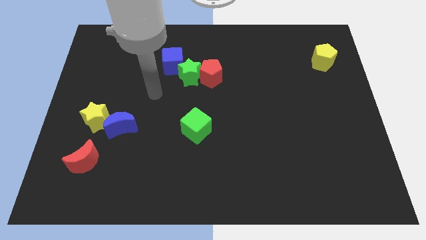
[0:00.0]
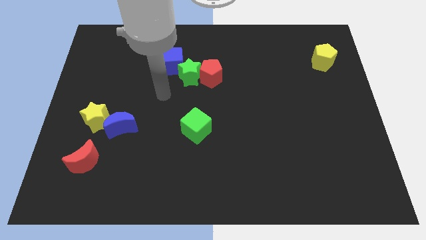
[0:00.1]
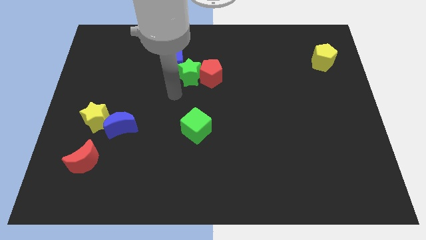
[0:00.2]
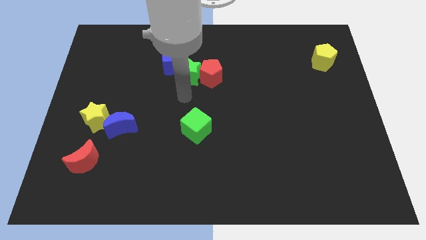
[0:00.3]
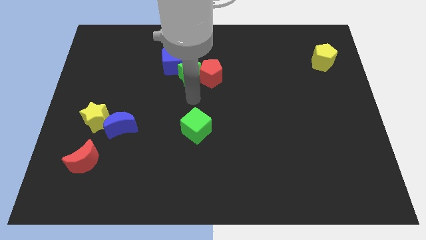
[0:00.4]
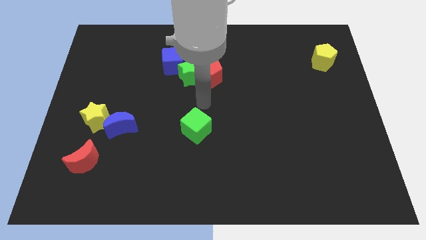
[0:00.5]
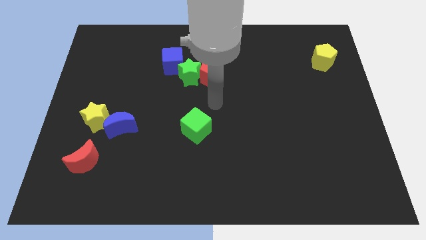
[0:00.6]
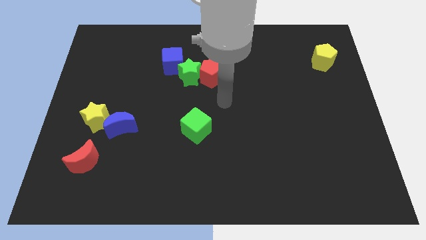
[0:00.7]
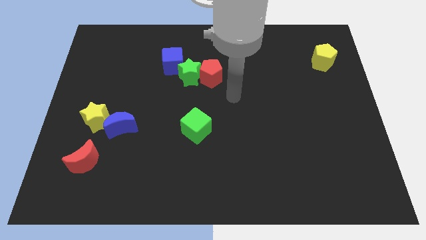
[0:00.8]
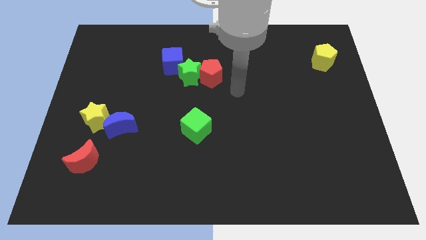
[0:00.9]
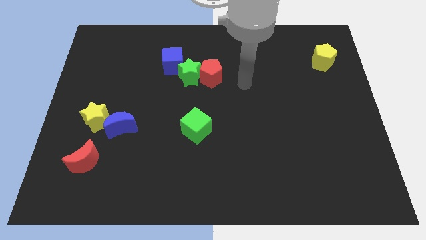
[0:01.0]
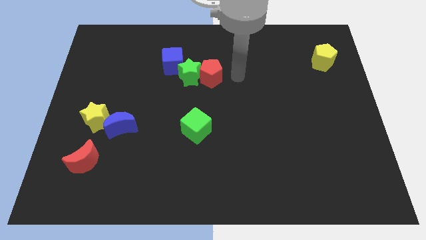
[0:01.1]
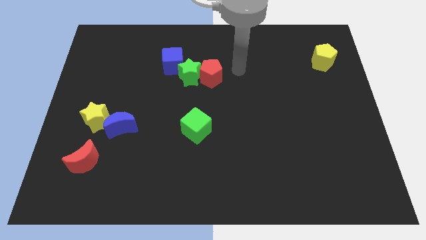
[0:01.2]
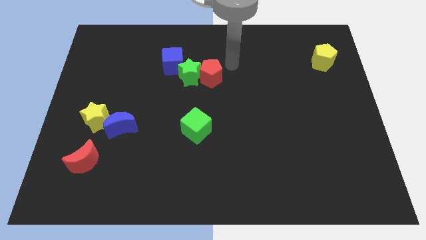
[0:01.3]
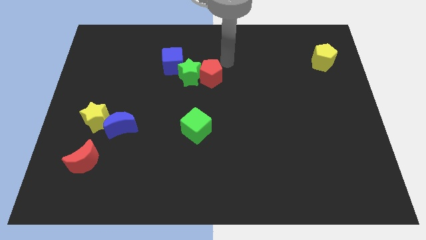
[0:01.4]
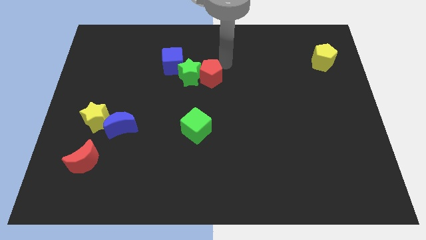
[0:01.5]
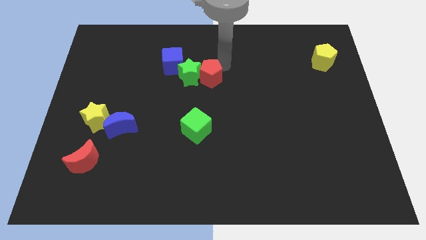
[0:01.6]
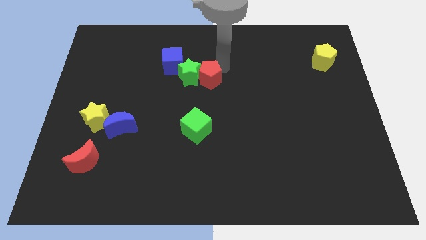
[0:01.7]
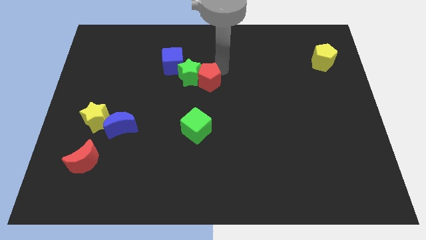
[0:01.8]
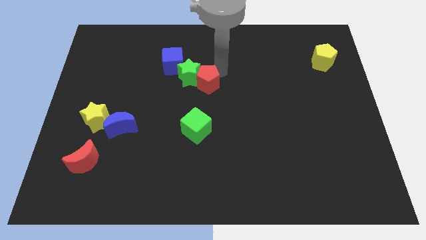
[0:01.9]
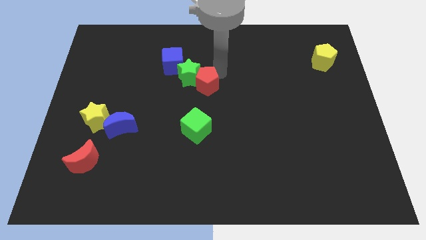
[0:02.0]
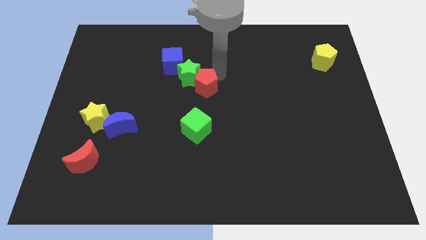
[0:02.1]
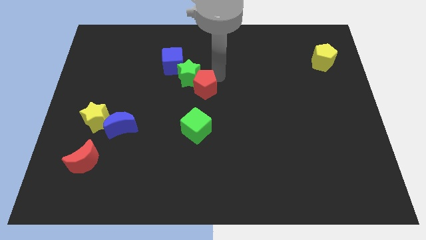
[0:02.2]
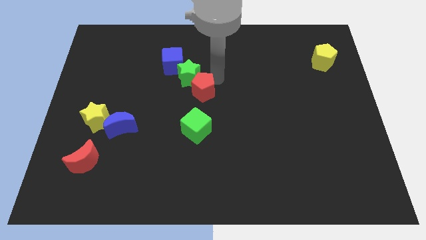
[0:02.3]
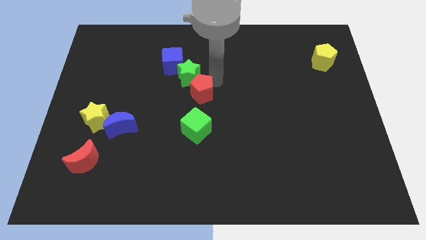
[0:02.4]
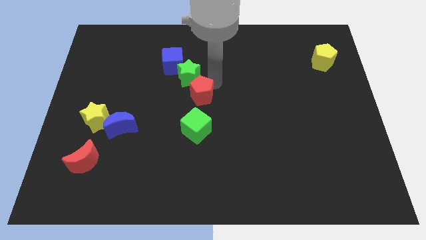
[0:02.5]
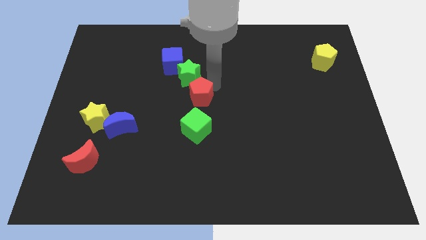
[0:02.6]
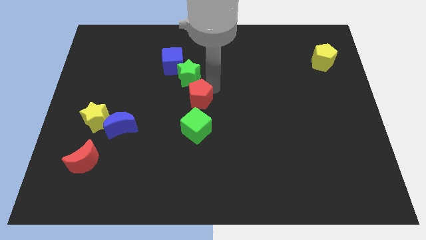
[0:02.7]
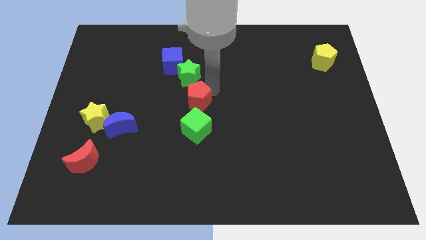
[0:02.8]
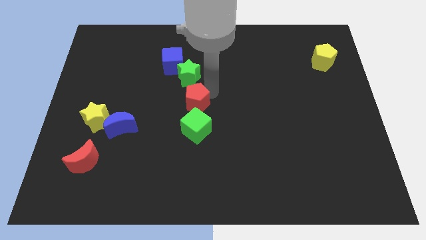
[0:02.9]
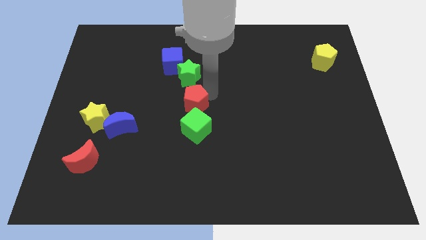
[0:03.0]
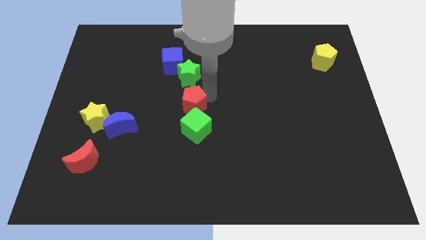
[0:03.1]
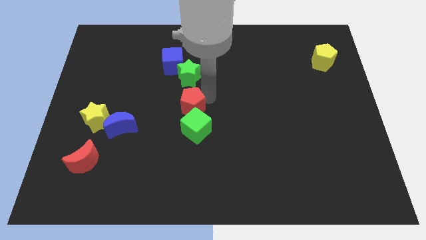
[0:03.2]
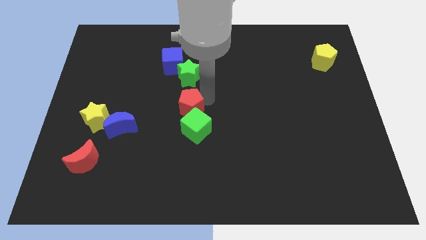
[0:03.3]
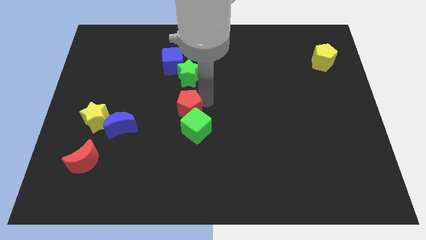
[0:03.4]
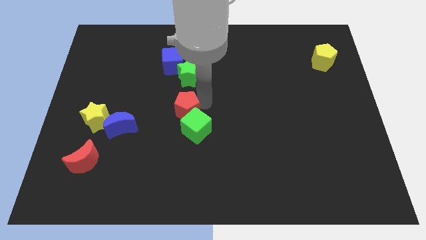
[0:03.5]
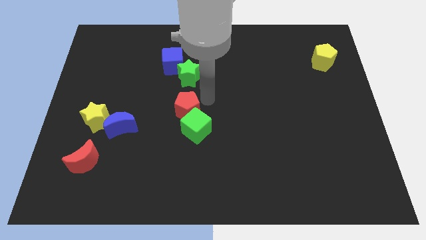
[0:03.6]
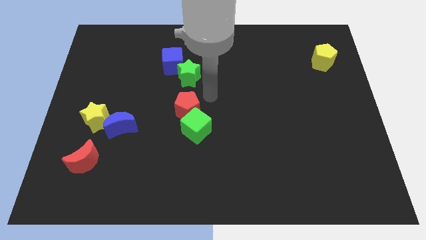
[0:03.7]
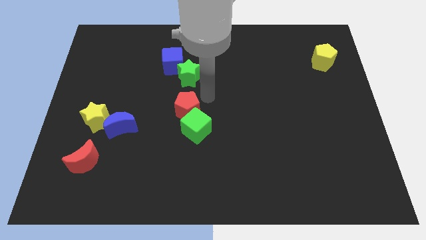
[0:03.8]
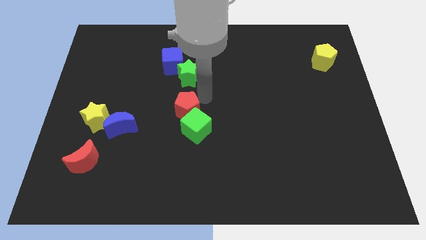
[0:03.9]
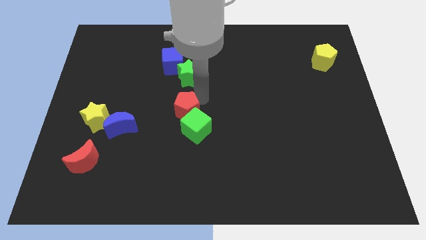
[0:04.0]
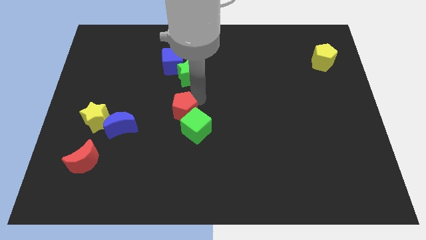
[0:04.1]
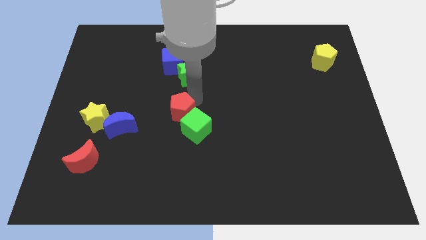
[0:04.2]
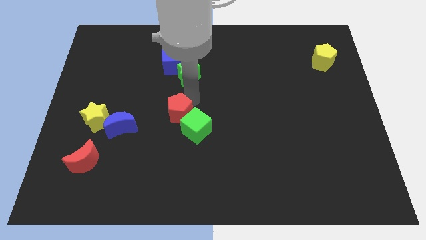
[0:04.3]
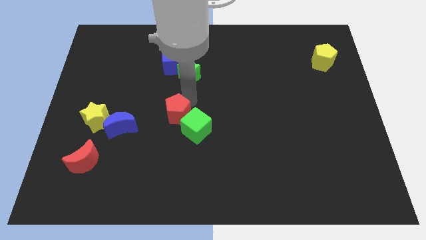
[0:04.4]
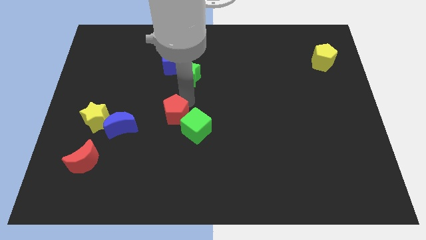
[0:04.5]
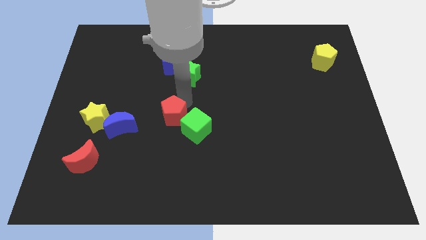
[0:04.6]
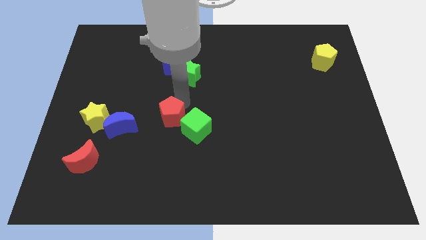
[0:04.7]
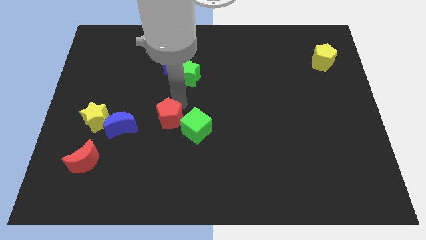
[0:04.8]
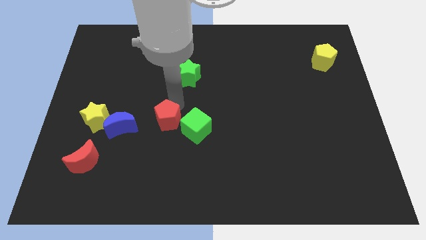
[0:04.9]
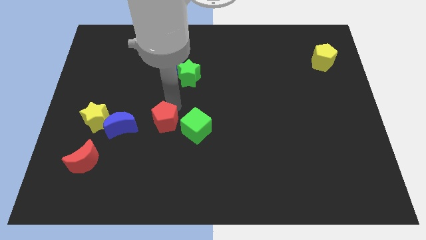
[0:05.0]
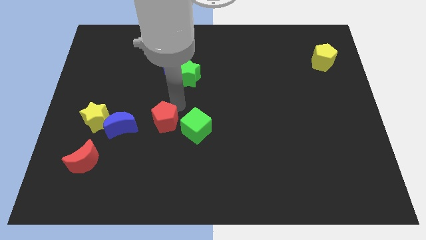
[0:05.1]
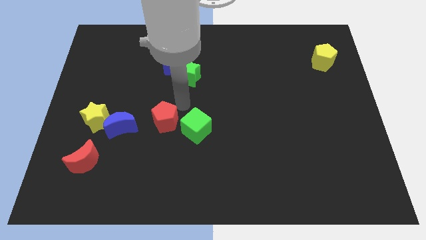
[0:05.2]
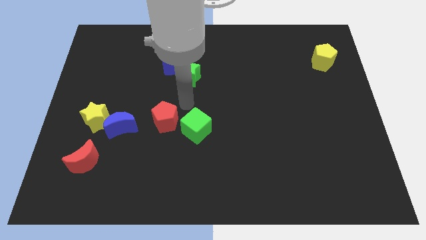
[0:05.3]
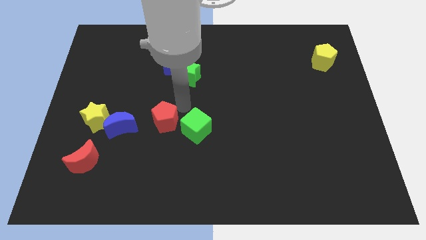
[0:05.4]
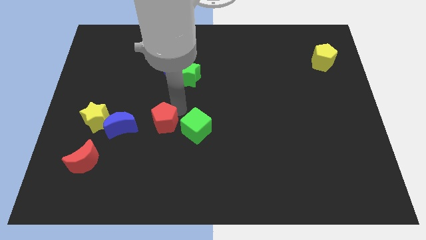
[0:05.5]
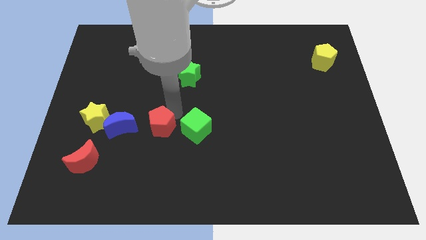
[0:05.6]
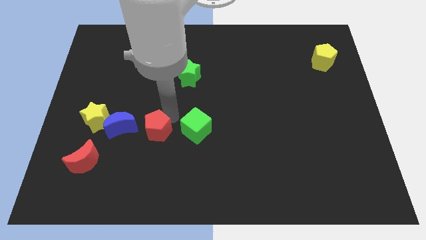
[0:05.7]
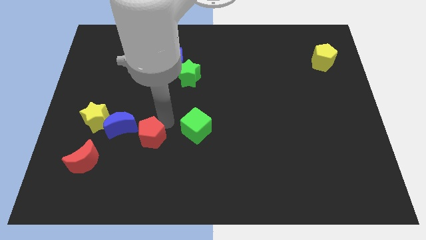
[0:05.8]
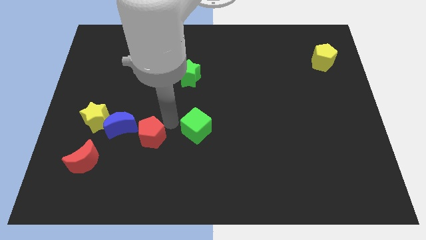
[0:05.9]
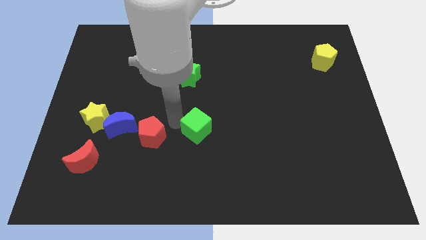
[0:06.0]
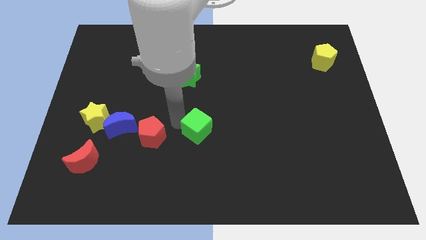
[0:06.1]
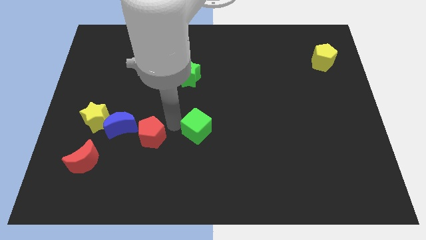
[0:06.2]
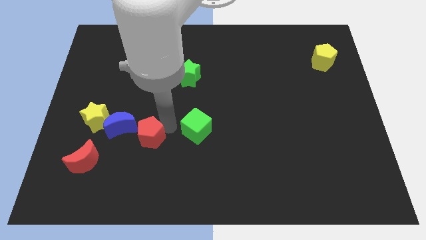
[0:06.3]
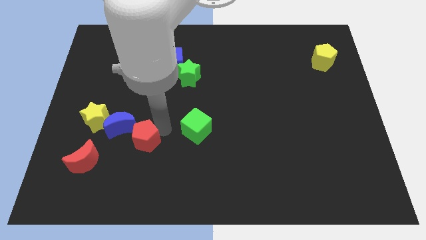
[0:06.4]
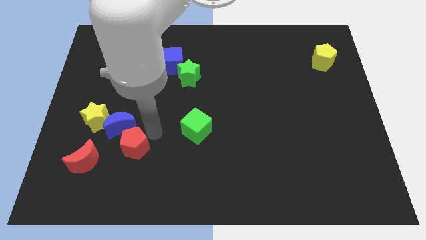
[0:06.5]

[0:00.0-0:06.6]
put the red pentagon below the blue moon

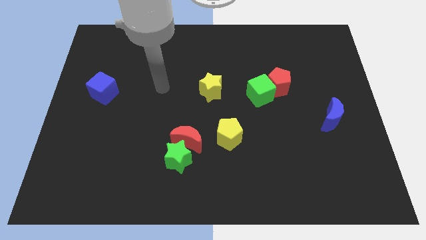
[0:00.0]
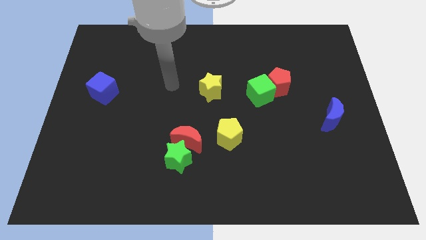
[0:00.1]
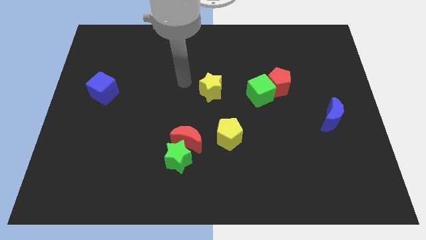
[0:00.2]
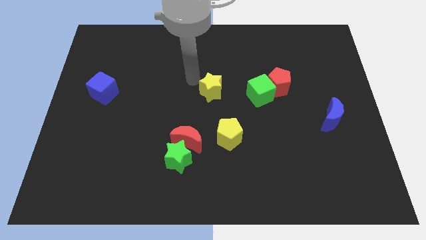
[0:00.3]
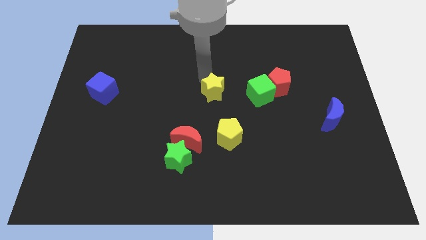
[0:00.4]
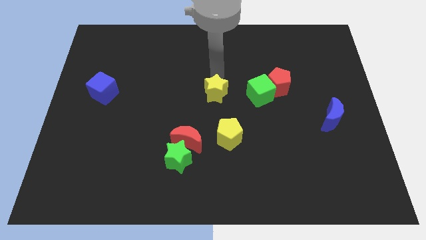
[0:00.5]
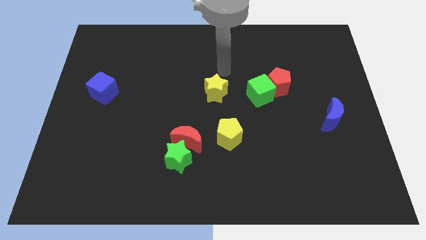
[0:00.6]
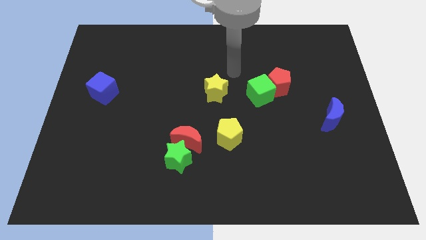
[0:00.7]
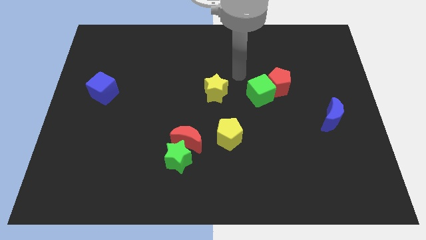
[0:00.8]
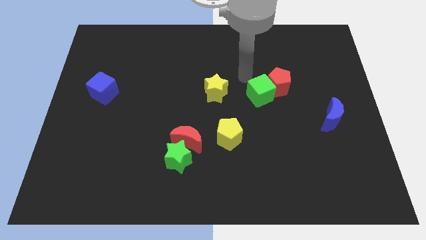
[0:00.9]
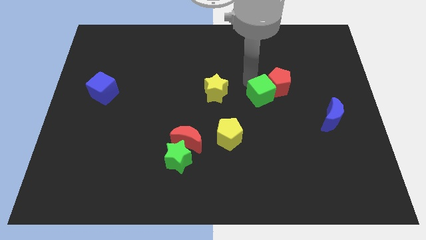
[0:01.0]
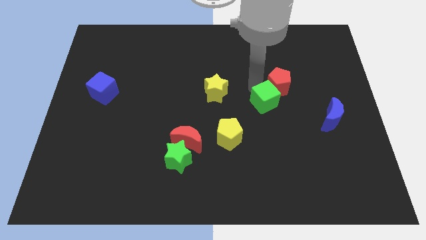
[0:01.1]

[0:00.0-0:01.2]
move the green cube to the bottom of the red pentagon

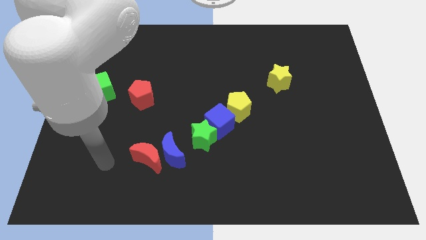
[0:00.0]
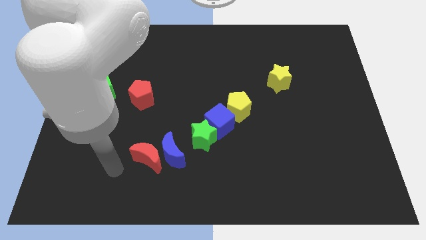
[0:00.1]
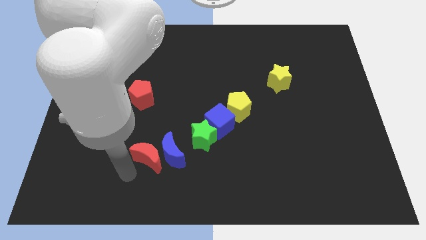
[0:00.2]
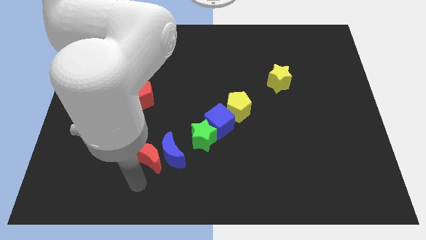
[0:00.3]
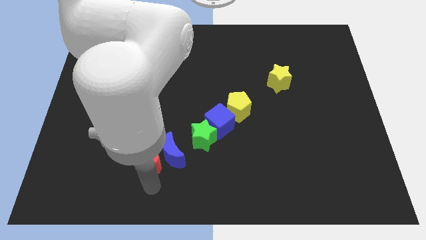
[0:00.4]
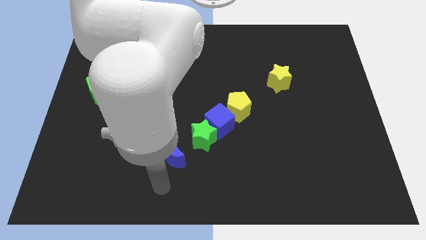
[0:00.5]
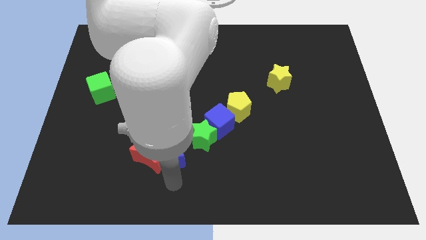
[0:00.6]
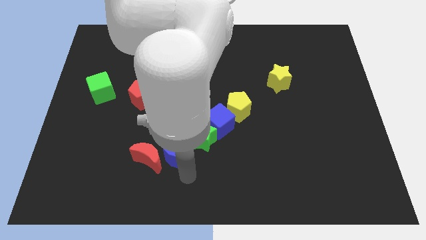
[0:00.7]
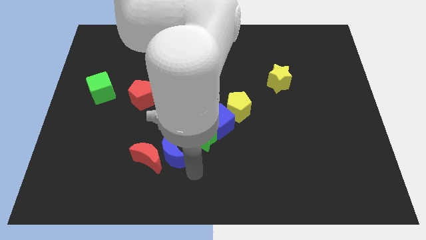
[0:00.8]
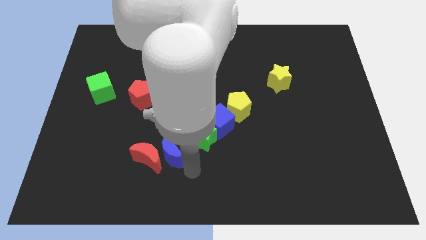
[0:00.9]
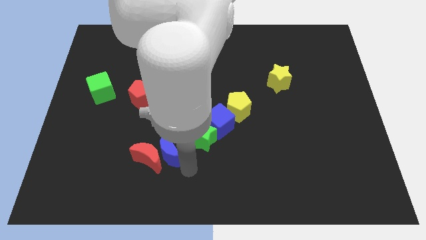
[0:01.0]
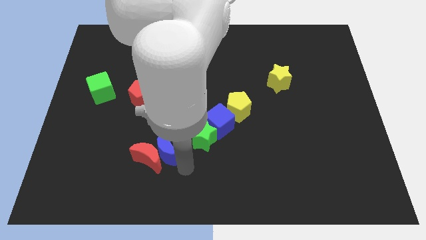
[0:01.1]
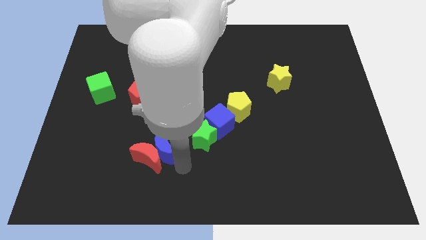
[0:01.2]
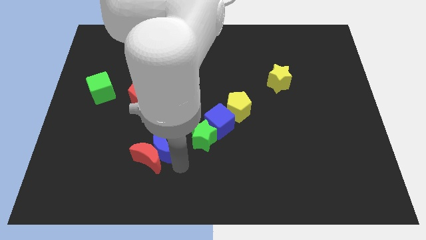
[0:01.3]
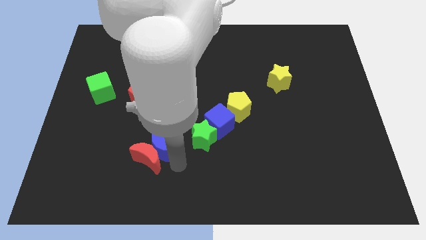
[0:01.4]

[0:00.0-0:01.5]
slide the blue moon to the top left of the red moon
